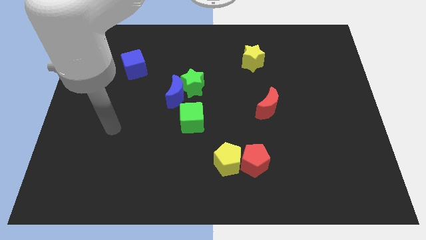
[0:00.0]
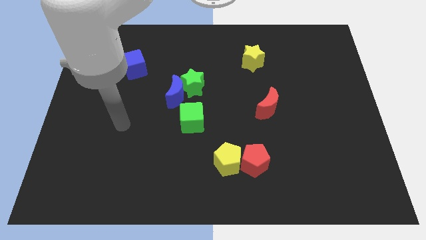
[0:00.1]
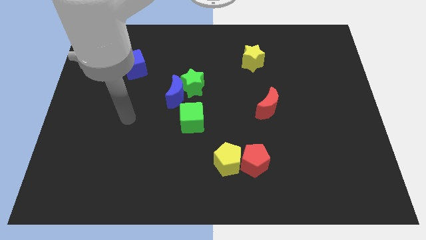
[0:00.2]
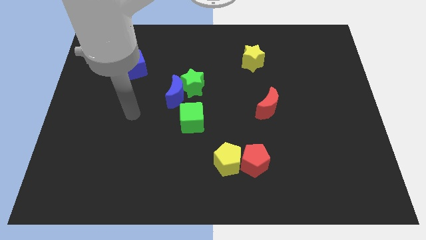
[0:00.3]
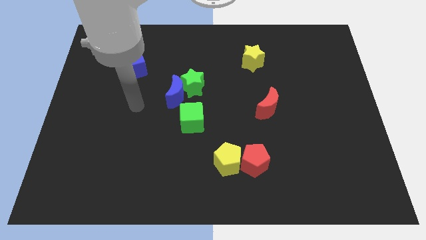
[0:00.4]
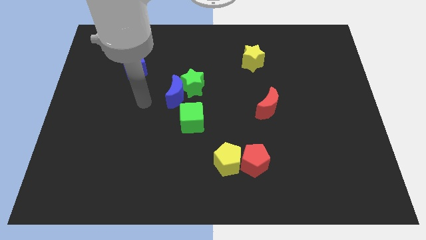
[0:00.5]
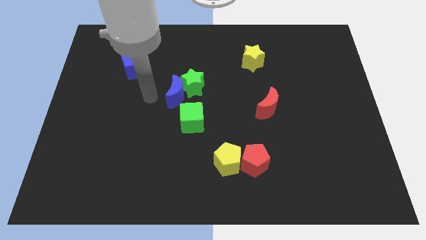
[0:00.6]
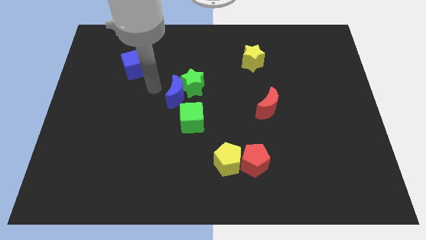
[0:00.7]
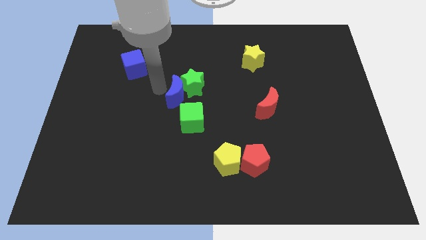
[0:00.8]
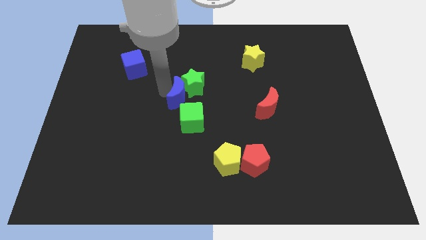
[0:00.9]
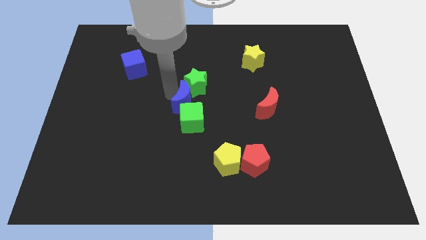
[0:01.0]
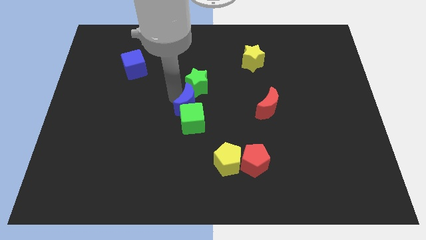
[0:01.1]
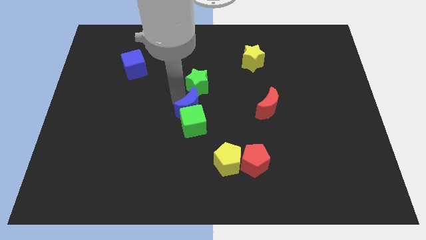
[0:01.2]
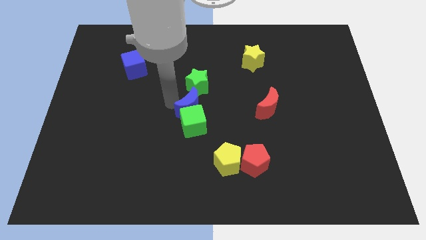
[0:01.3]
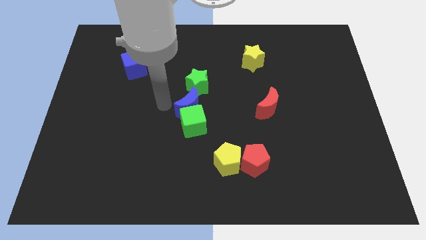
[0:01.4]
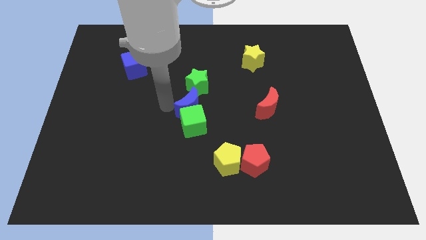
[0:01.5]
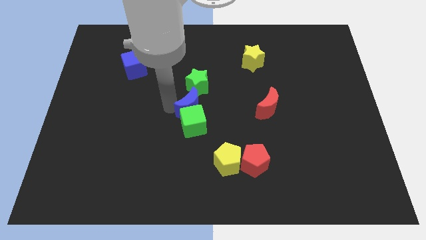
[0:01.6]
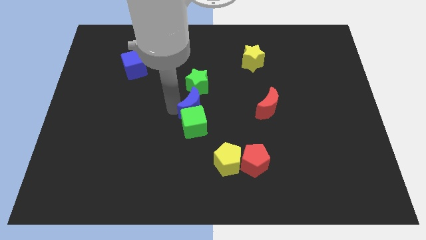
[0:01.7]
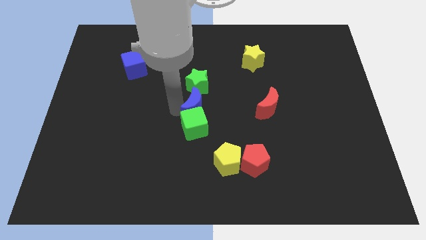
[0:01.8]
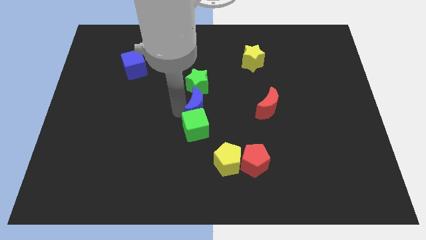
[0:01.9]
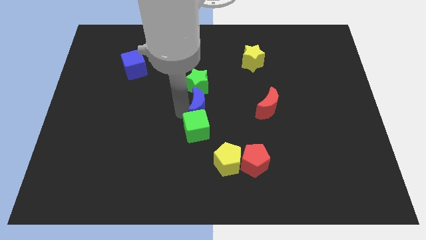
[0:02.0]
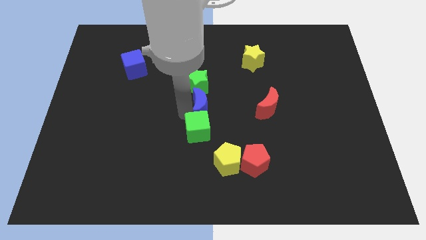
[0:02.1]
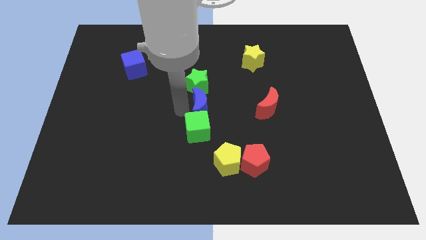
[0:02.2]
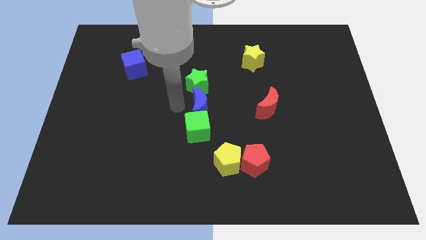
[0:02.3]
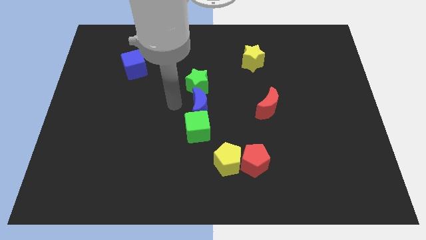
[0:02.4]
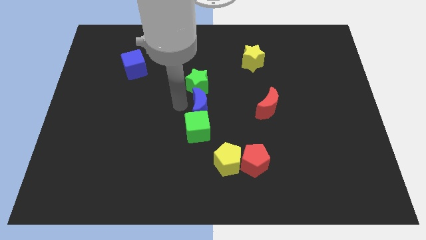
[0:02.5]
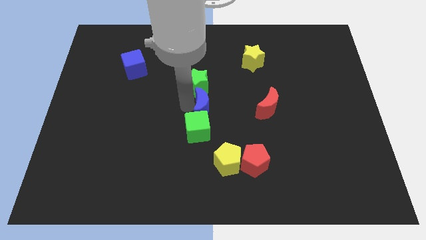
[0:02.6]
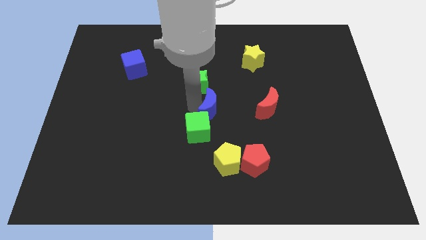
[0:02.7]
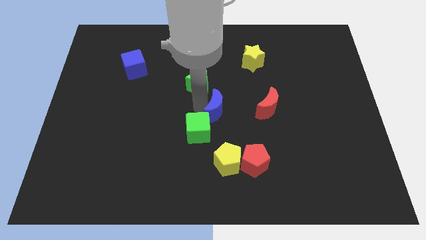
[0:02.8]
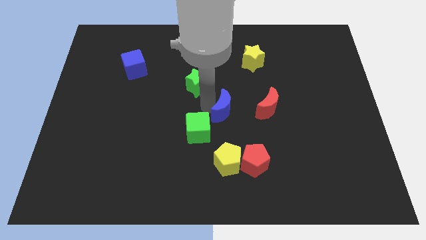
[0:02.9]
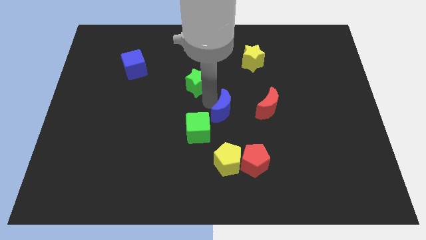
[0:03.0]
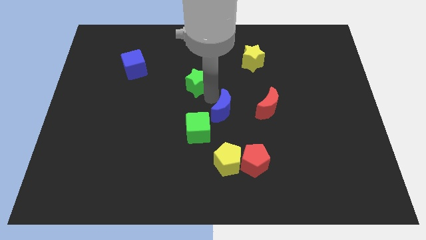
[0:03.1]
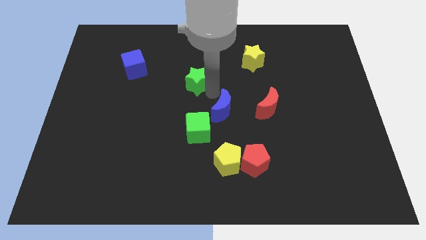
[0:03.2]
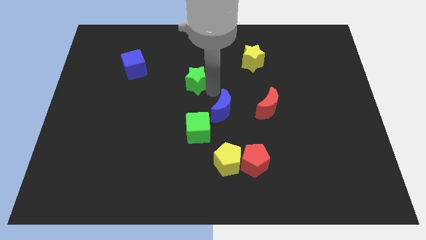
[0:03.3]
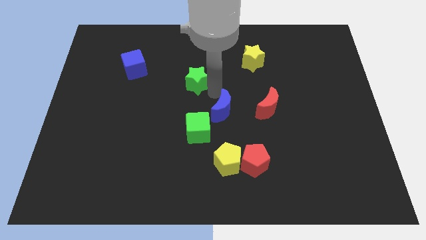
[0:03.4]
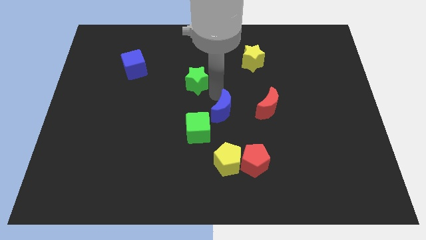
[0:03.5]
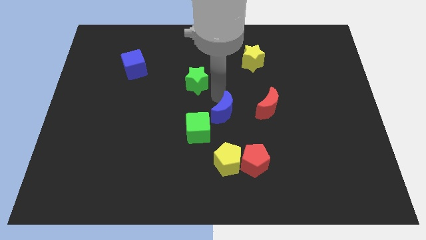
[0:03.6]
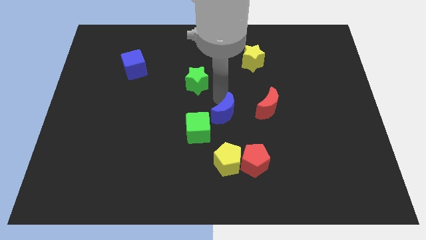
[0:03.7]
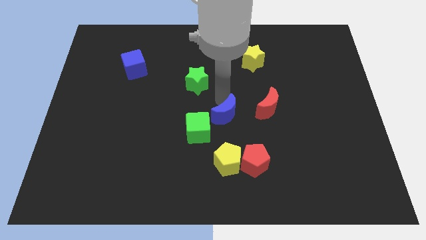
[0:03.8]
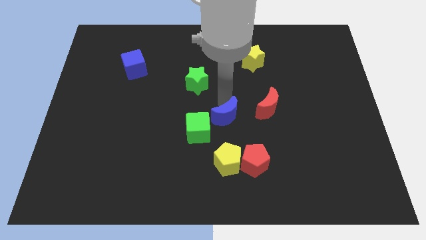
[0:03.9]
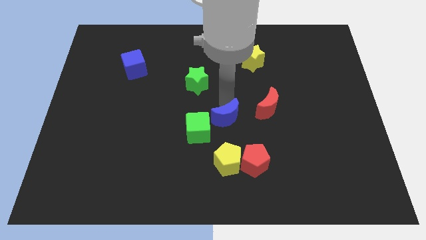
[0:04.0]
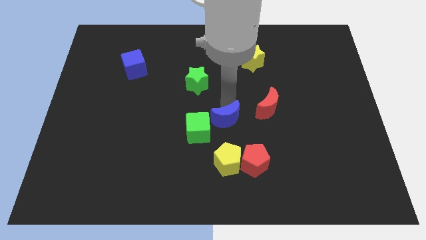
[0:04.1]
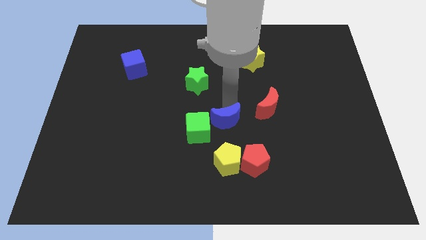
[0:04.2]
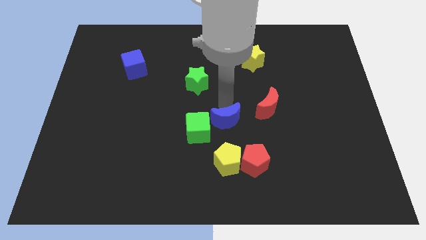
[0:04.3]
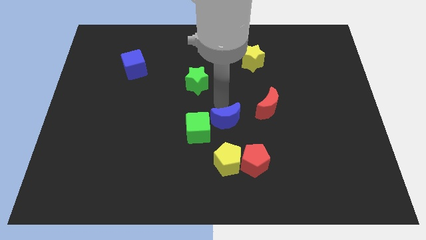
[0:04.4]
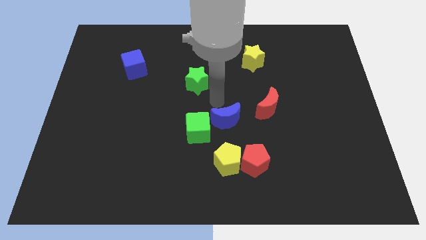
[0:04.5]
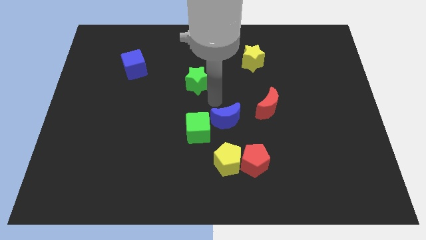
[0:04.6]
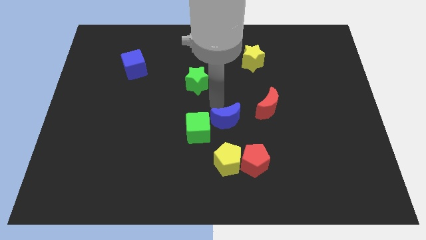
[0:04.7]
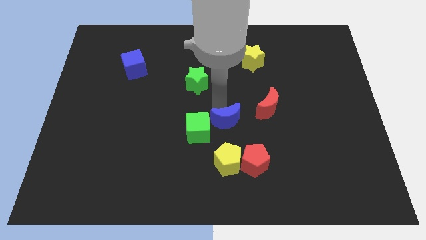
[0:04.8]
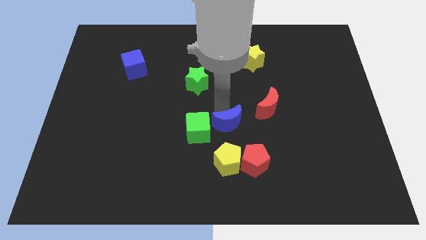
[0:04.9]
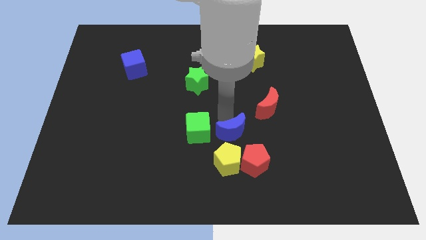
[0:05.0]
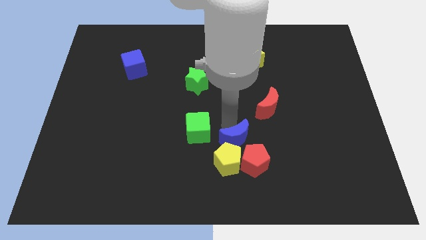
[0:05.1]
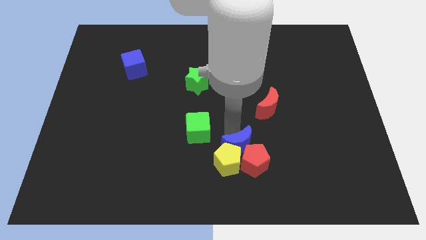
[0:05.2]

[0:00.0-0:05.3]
move the blue moon to the red pentagon

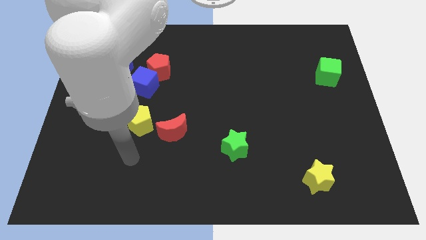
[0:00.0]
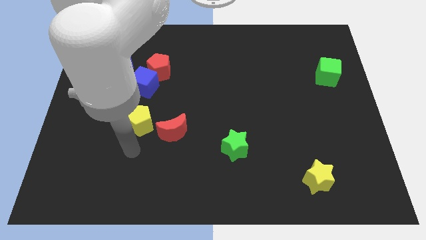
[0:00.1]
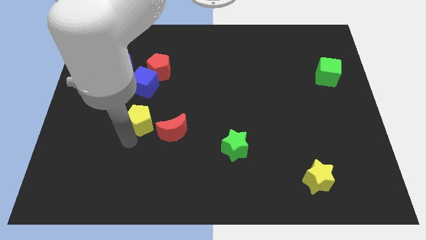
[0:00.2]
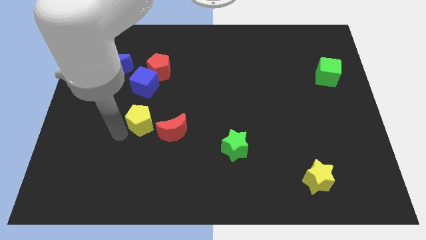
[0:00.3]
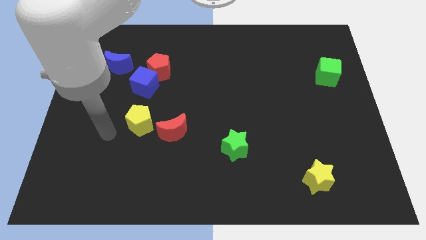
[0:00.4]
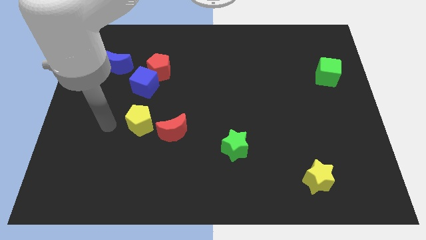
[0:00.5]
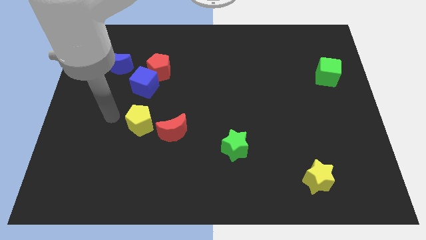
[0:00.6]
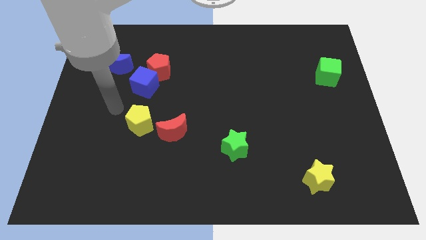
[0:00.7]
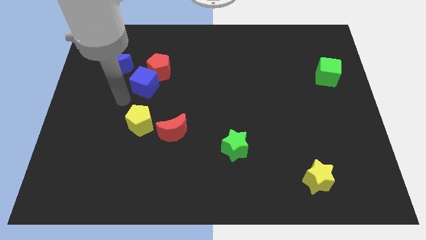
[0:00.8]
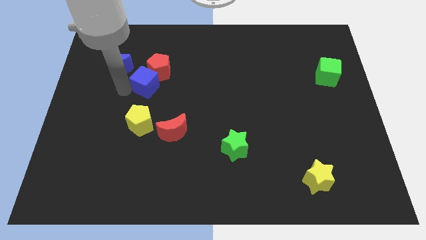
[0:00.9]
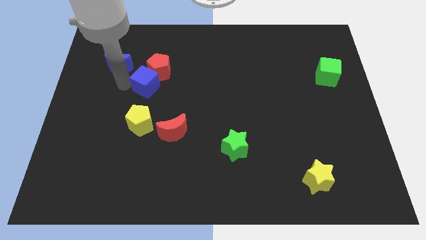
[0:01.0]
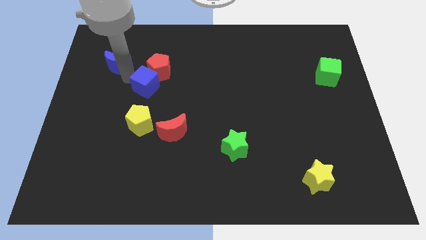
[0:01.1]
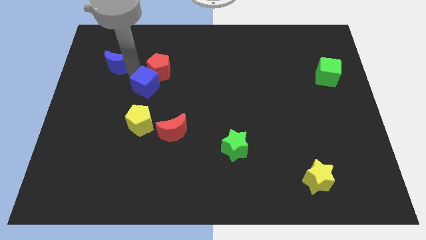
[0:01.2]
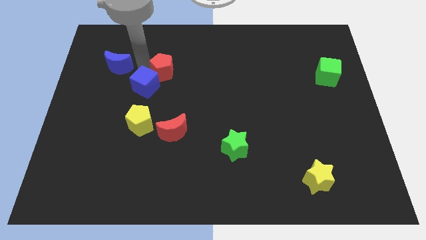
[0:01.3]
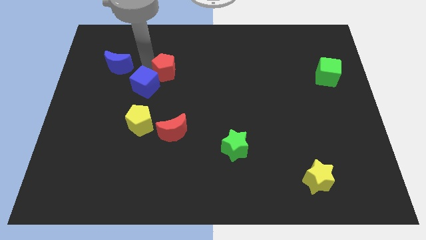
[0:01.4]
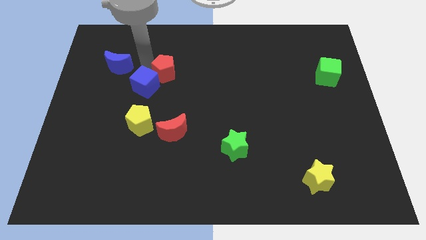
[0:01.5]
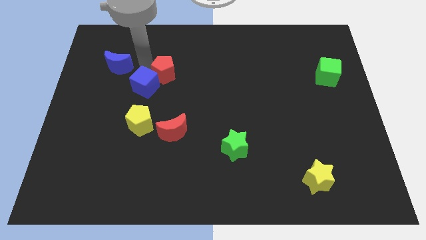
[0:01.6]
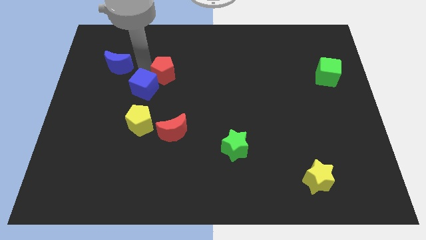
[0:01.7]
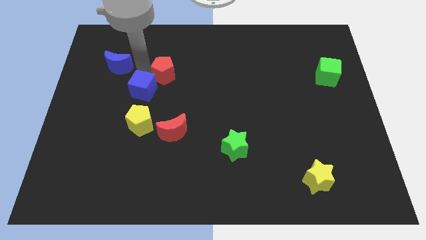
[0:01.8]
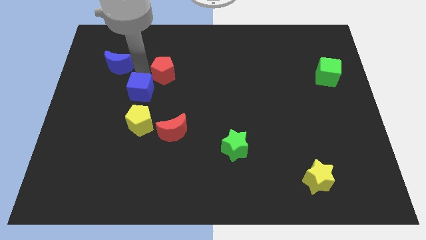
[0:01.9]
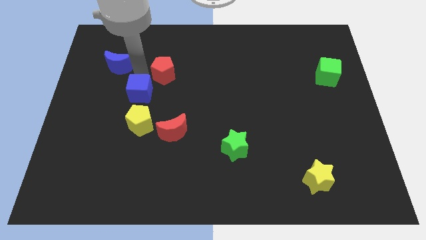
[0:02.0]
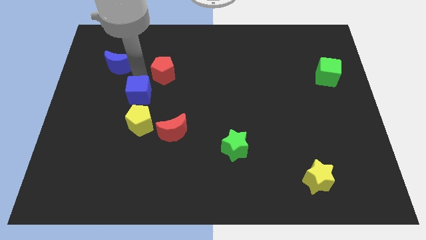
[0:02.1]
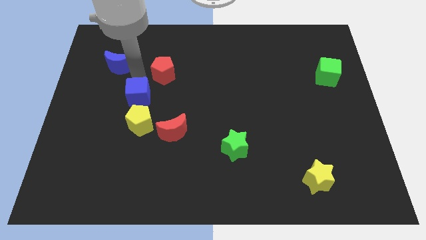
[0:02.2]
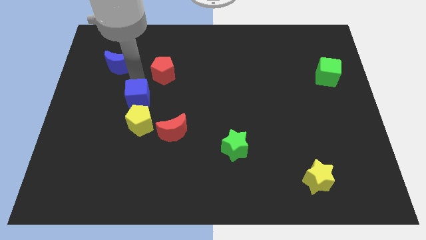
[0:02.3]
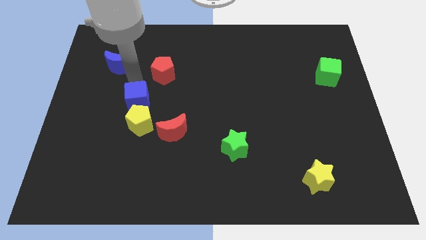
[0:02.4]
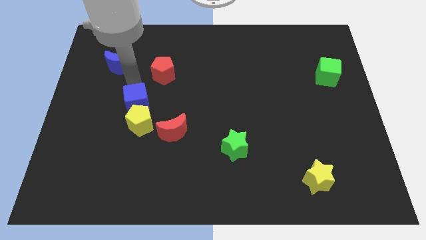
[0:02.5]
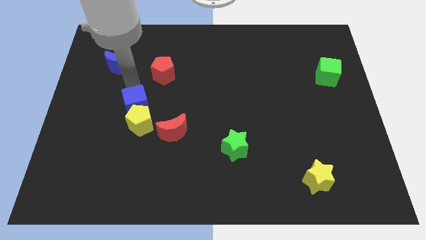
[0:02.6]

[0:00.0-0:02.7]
put the blue cube next to the yellow pentagon
